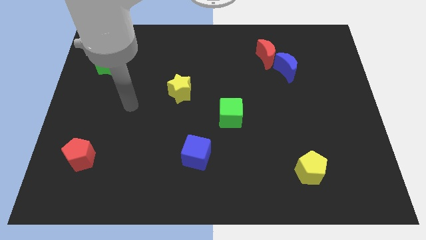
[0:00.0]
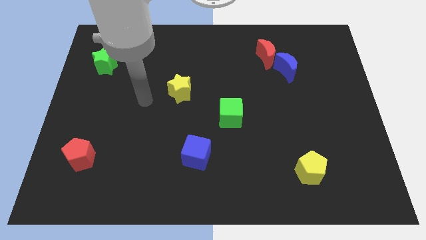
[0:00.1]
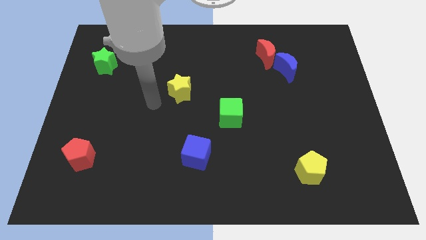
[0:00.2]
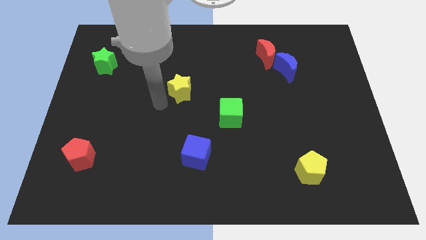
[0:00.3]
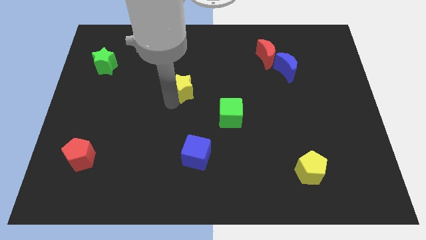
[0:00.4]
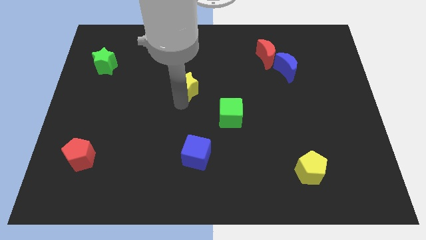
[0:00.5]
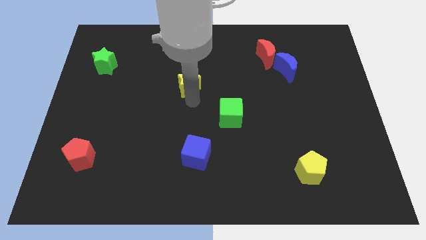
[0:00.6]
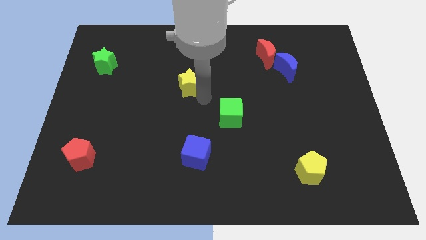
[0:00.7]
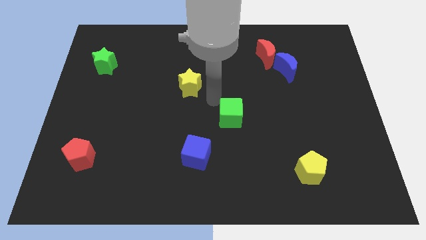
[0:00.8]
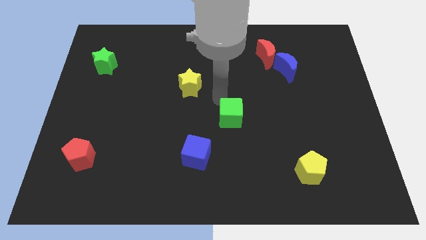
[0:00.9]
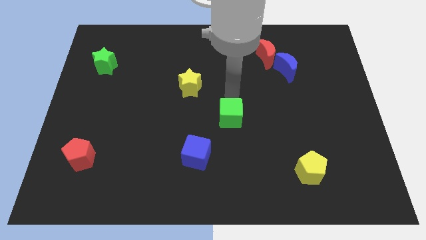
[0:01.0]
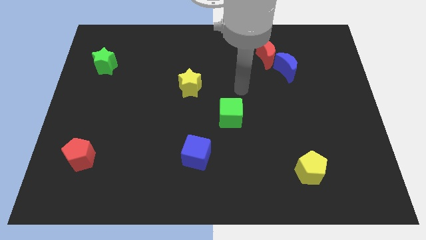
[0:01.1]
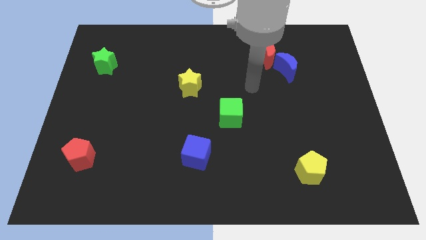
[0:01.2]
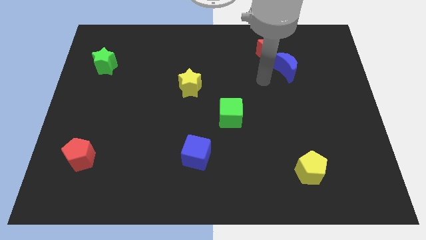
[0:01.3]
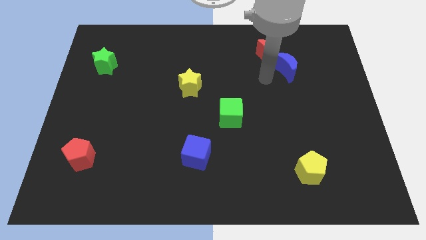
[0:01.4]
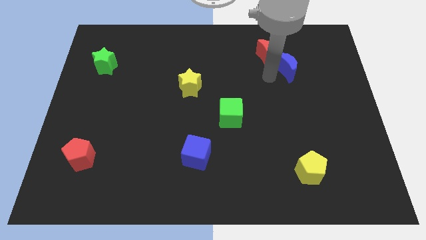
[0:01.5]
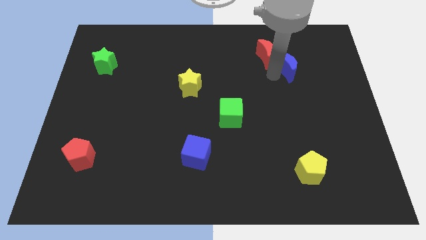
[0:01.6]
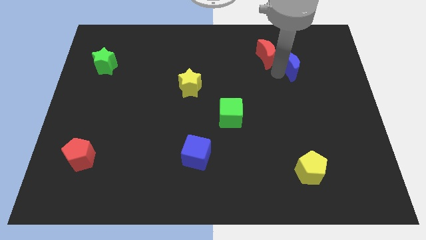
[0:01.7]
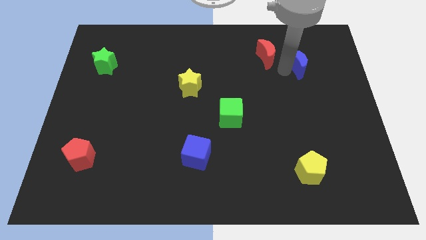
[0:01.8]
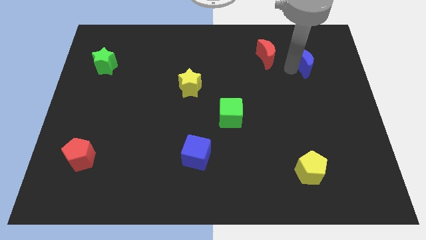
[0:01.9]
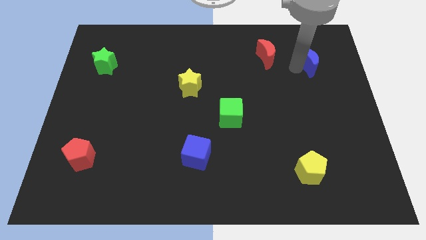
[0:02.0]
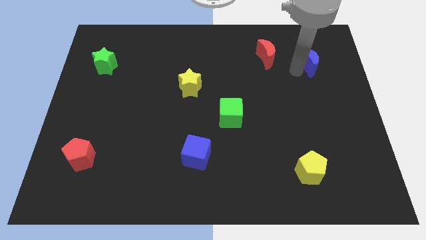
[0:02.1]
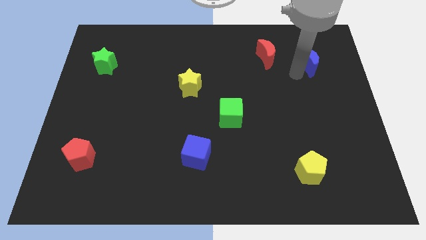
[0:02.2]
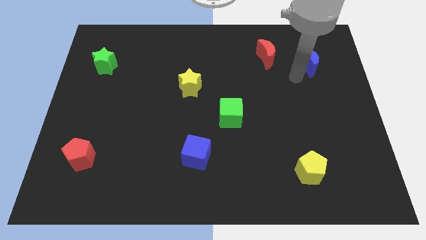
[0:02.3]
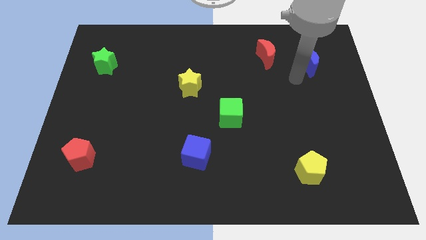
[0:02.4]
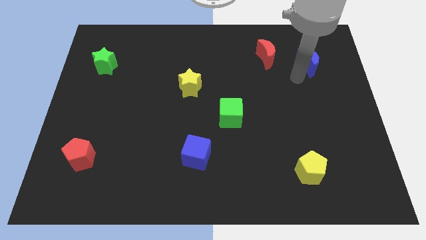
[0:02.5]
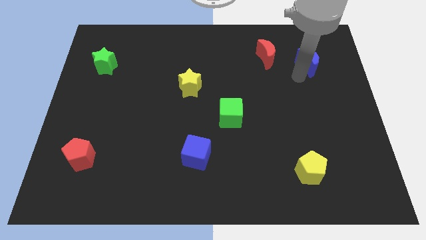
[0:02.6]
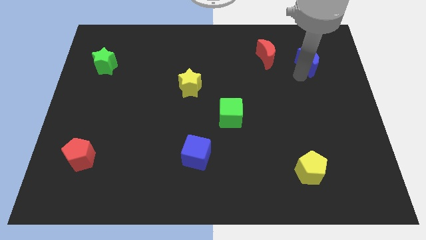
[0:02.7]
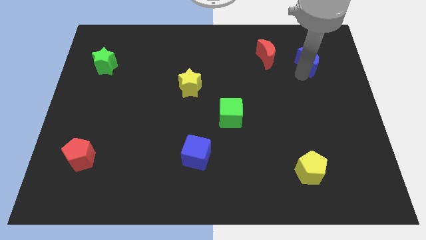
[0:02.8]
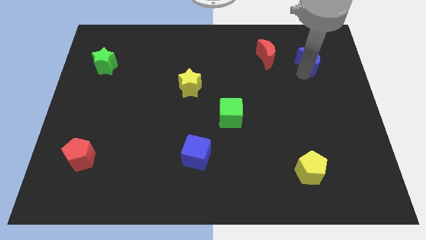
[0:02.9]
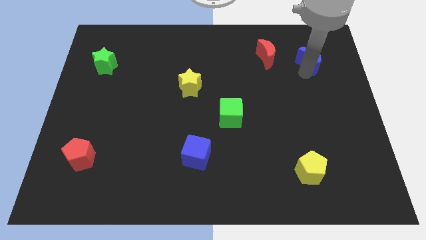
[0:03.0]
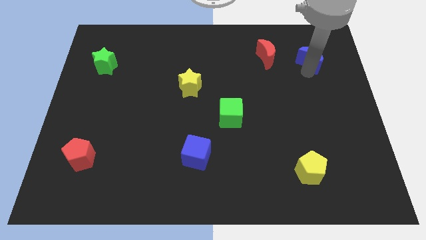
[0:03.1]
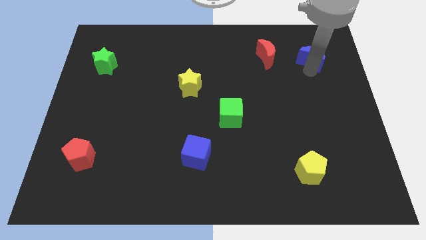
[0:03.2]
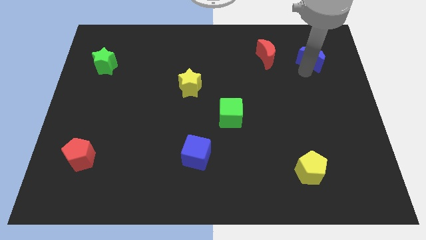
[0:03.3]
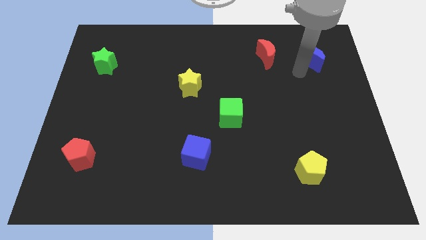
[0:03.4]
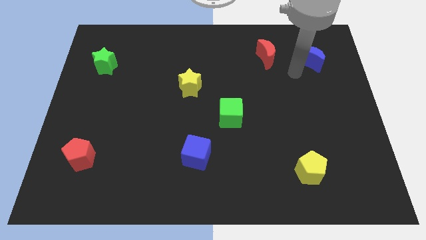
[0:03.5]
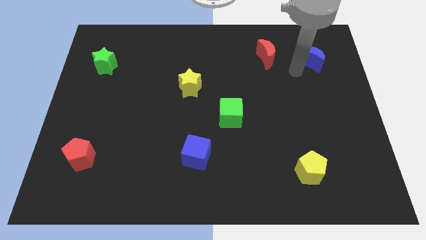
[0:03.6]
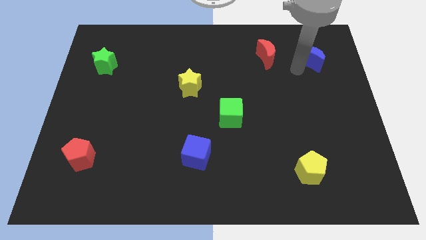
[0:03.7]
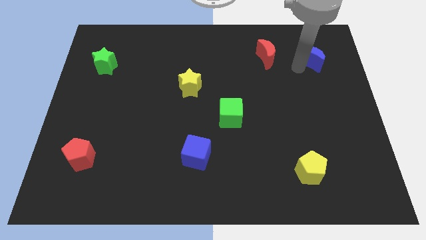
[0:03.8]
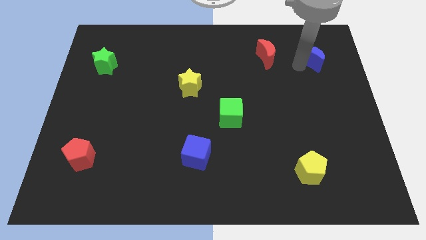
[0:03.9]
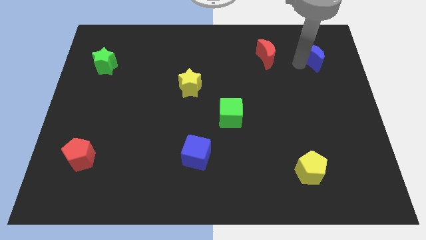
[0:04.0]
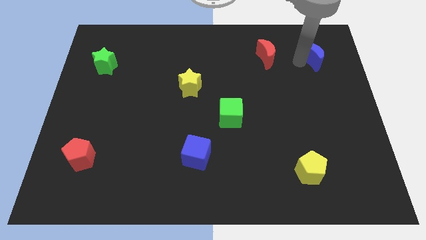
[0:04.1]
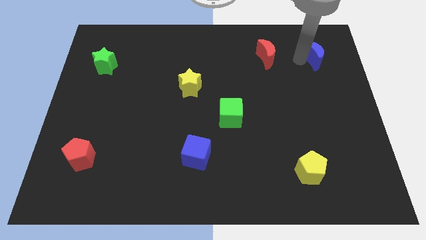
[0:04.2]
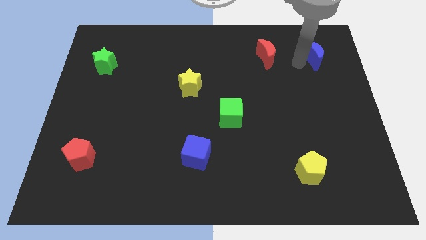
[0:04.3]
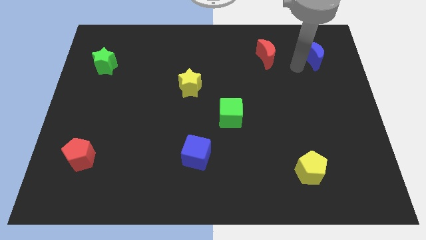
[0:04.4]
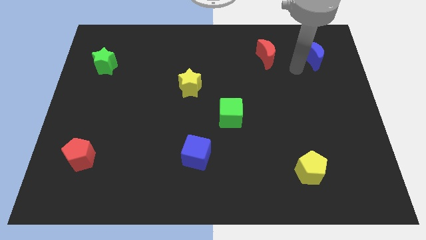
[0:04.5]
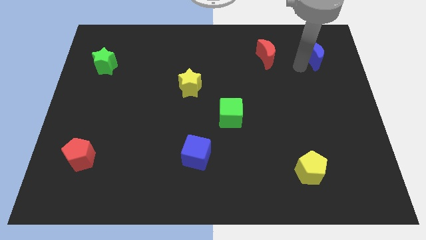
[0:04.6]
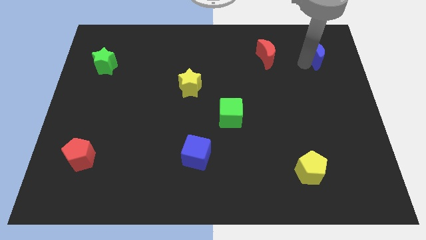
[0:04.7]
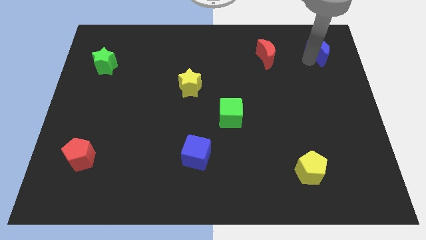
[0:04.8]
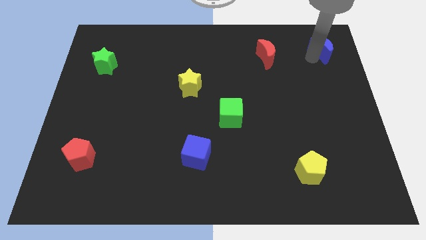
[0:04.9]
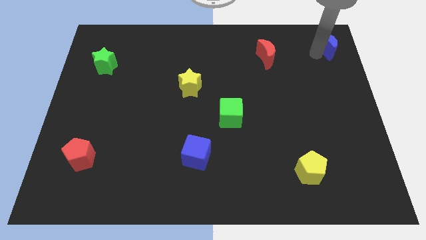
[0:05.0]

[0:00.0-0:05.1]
push the blue moon to the upper right corner

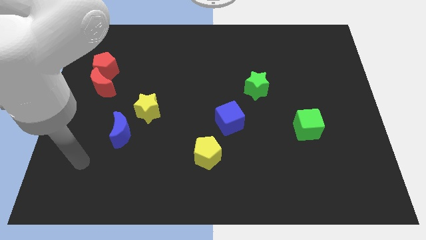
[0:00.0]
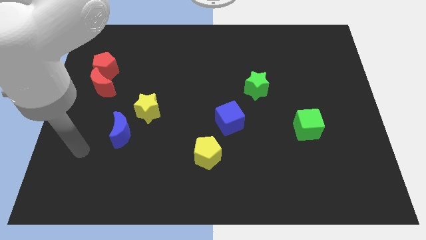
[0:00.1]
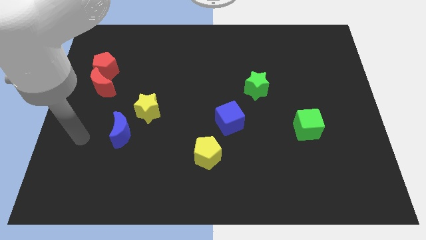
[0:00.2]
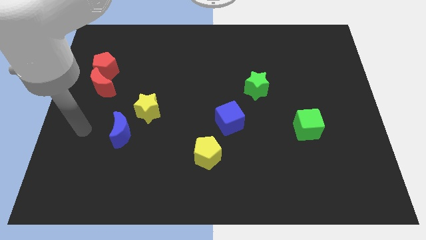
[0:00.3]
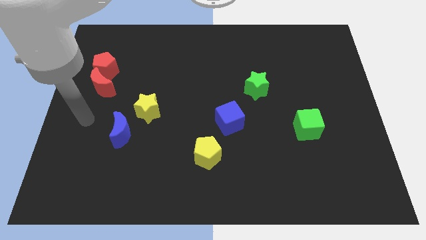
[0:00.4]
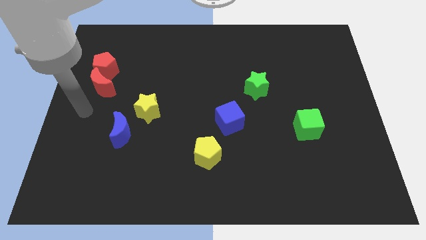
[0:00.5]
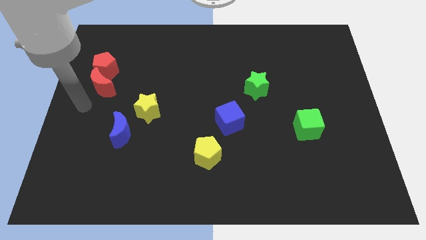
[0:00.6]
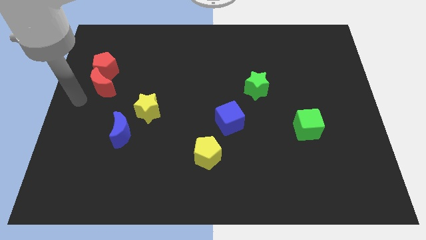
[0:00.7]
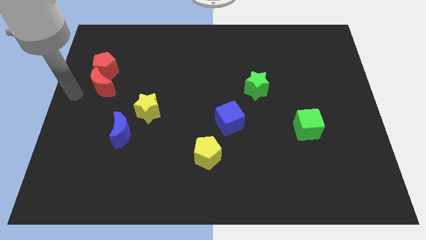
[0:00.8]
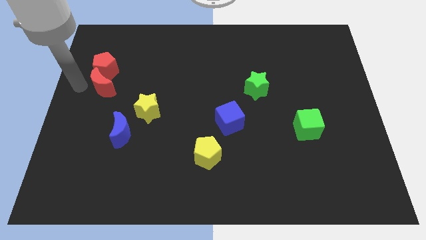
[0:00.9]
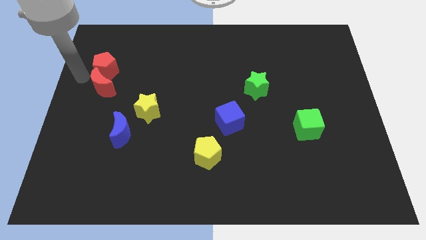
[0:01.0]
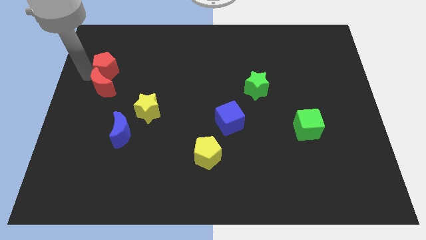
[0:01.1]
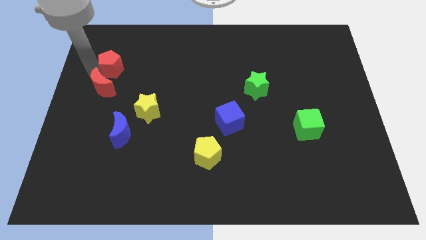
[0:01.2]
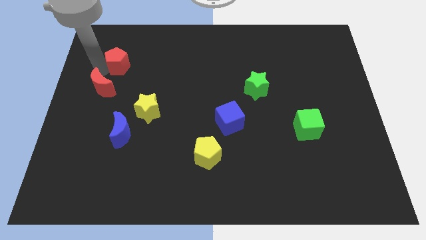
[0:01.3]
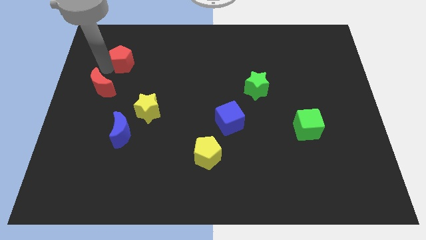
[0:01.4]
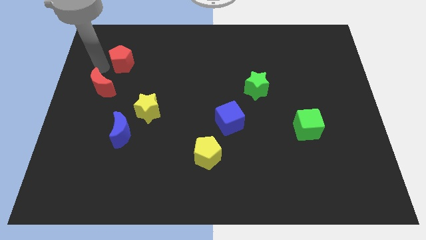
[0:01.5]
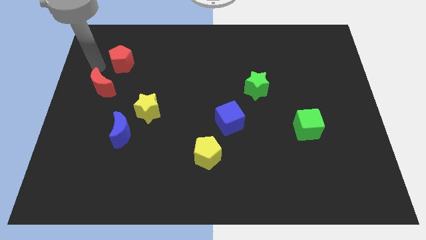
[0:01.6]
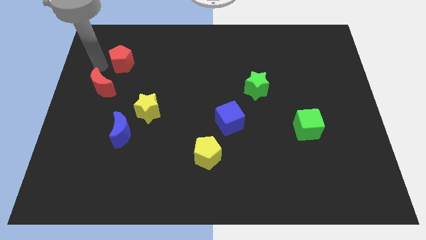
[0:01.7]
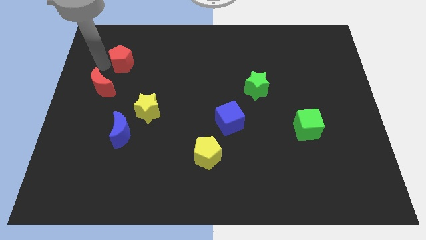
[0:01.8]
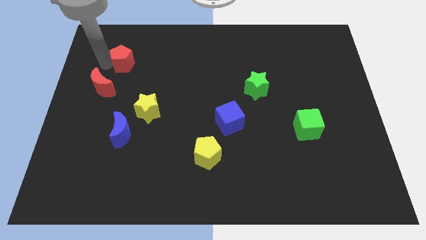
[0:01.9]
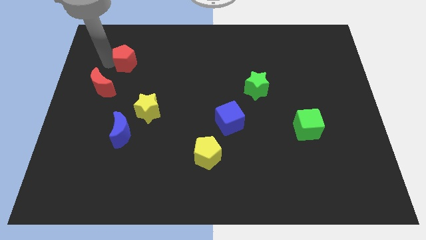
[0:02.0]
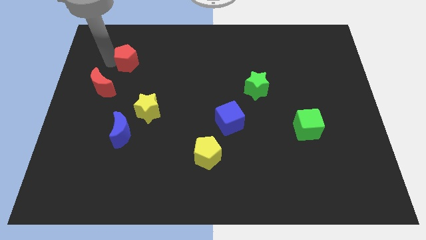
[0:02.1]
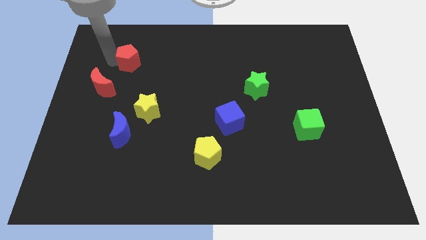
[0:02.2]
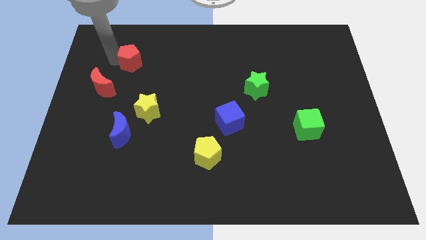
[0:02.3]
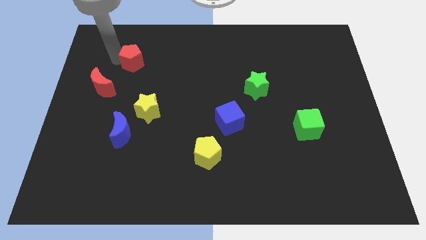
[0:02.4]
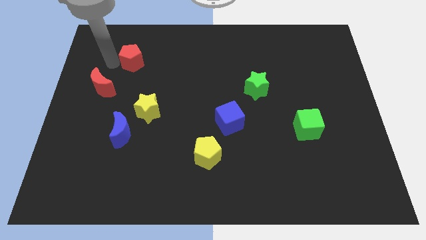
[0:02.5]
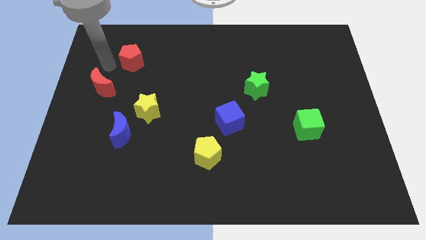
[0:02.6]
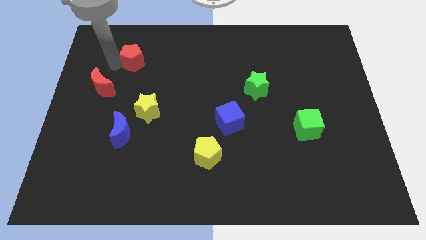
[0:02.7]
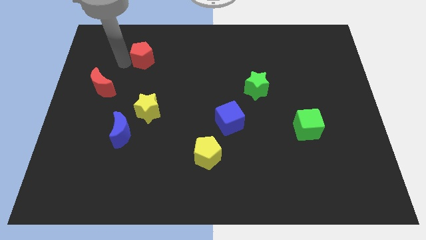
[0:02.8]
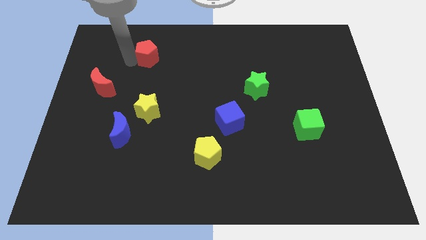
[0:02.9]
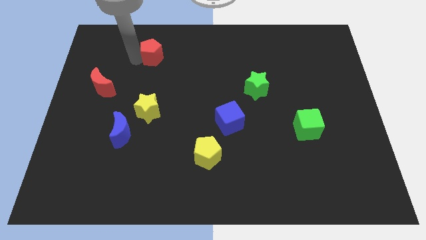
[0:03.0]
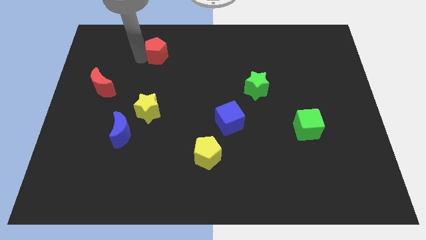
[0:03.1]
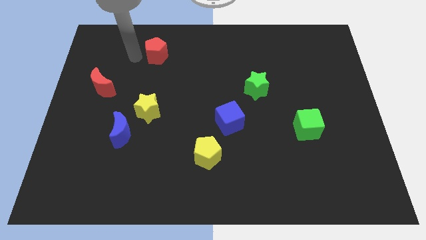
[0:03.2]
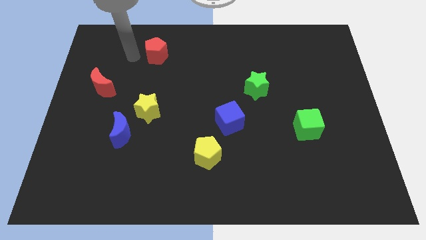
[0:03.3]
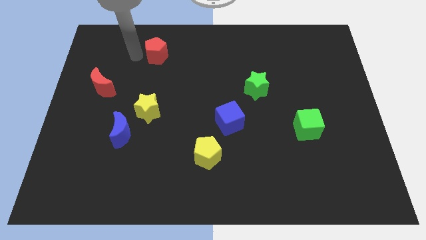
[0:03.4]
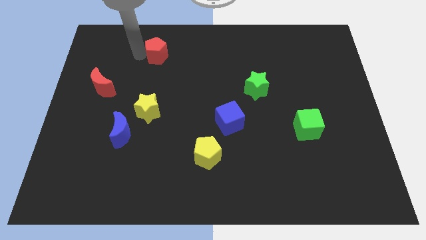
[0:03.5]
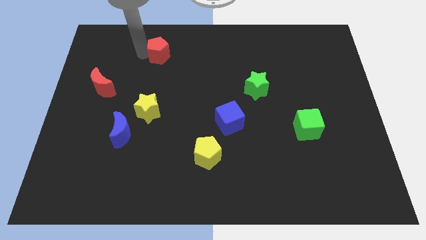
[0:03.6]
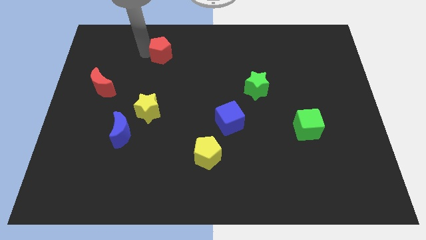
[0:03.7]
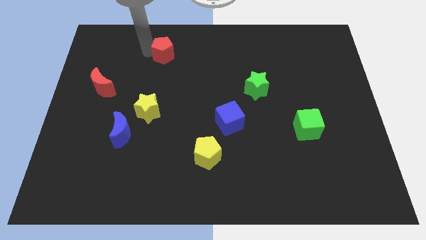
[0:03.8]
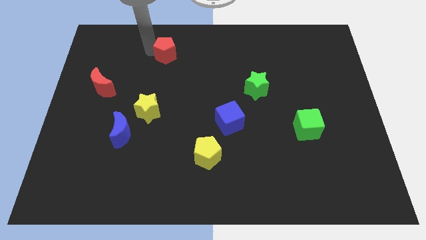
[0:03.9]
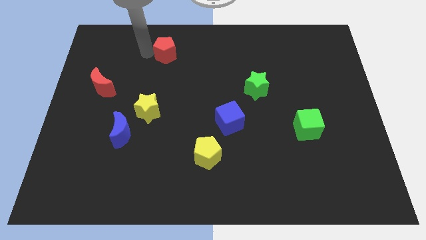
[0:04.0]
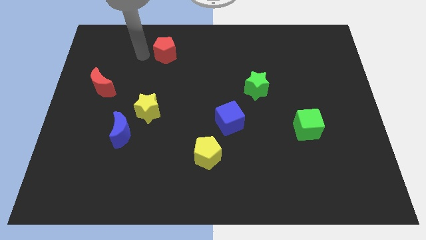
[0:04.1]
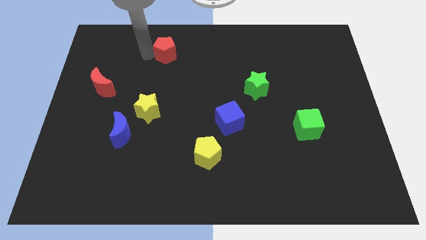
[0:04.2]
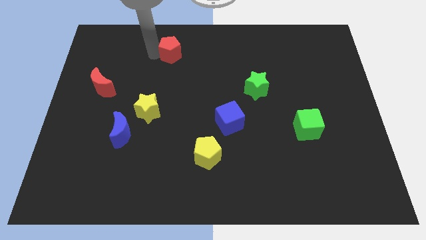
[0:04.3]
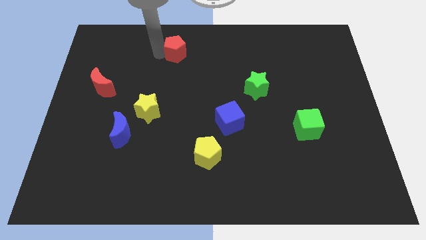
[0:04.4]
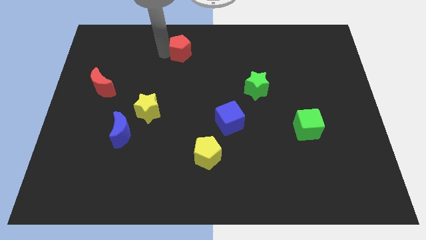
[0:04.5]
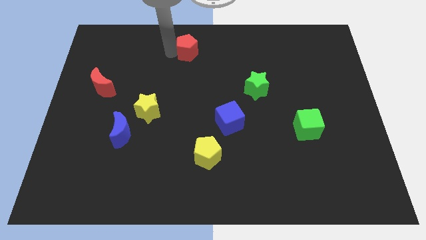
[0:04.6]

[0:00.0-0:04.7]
slide the red pentagon to the towards your base
